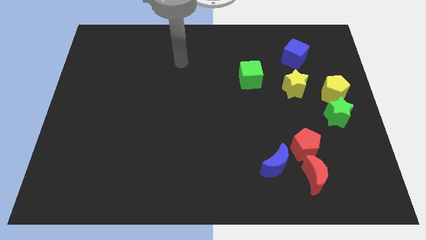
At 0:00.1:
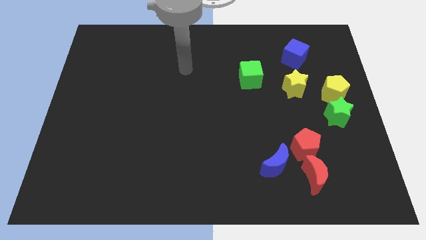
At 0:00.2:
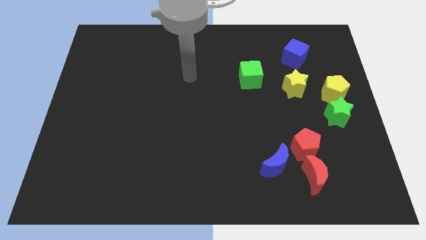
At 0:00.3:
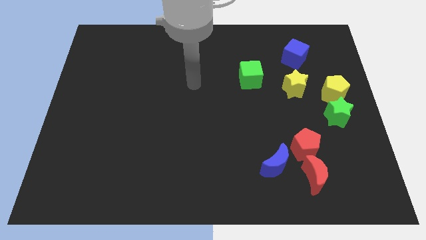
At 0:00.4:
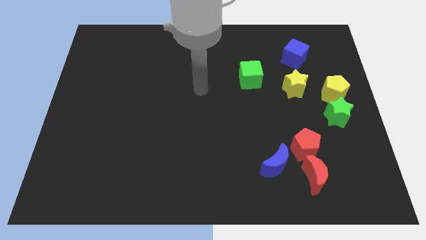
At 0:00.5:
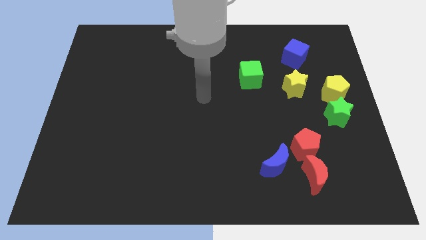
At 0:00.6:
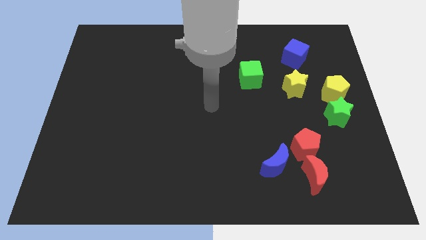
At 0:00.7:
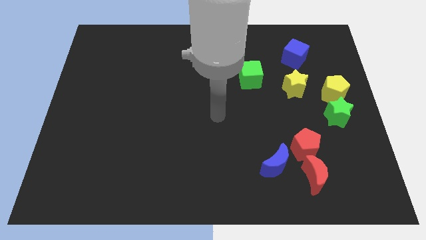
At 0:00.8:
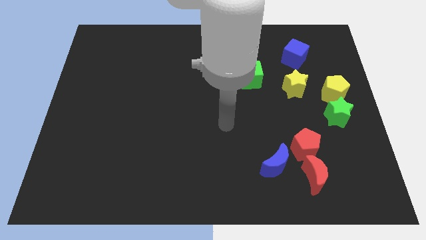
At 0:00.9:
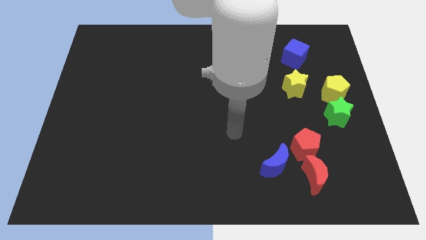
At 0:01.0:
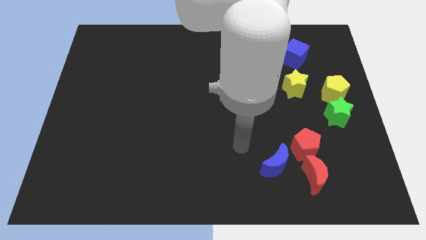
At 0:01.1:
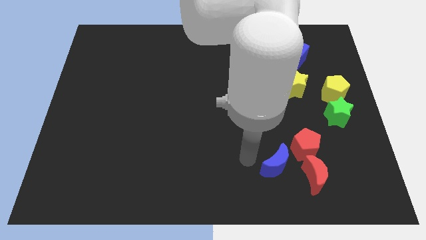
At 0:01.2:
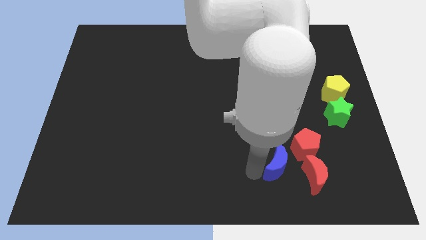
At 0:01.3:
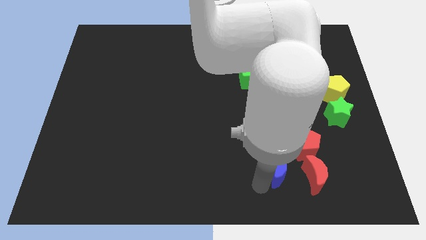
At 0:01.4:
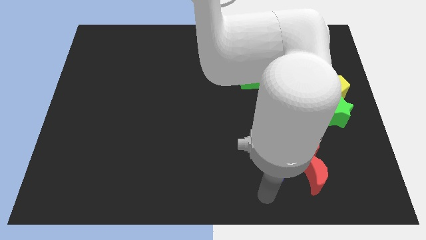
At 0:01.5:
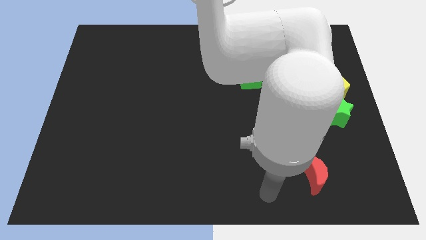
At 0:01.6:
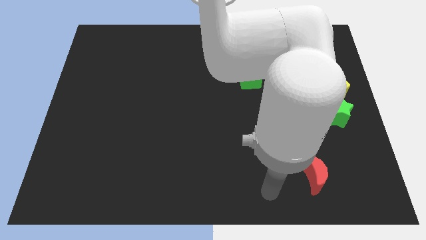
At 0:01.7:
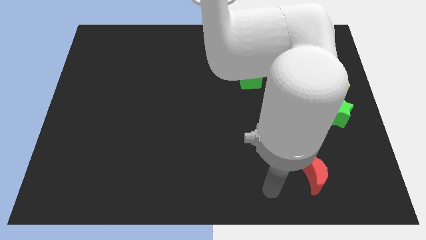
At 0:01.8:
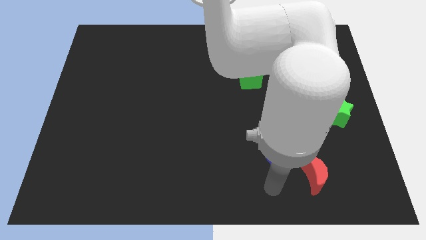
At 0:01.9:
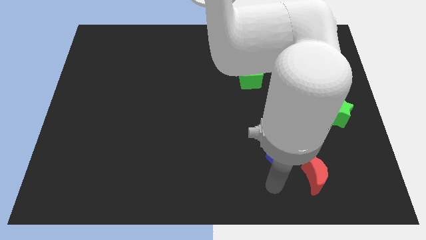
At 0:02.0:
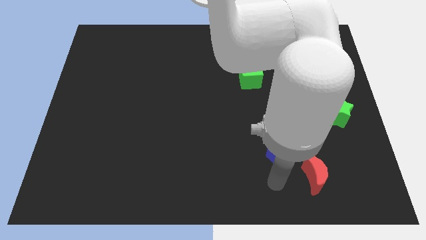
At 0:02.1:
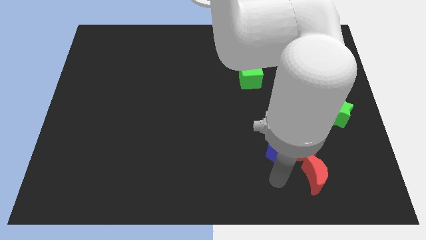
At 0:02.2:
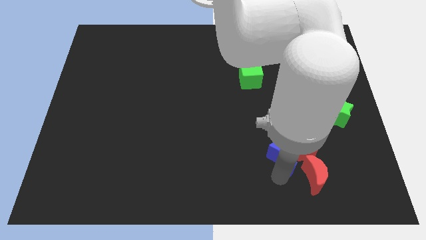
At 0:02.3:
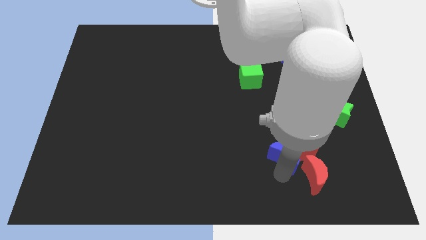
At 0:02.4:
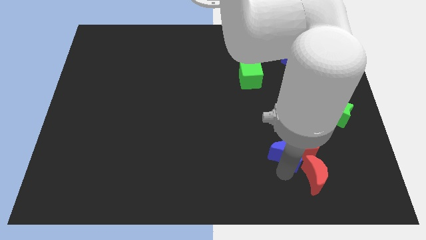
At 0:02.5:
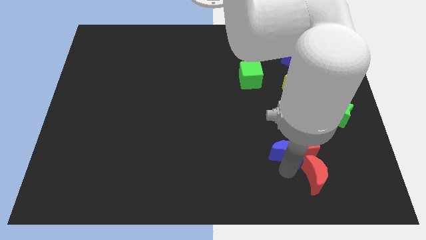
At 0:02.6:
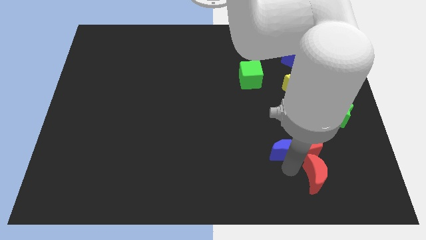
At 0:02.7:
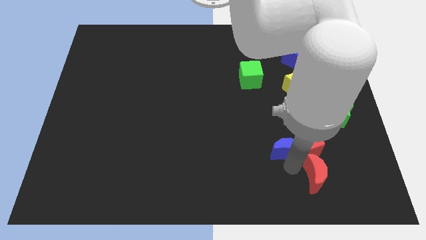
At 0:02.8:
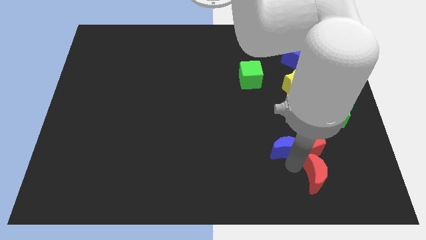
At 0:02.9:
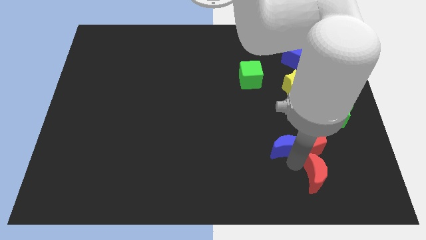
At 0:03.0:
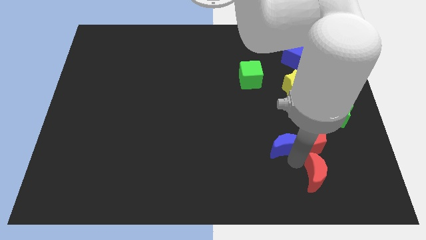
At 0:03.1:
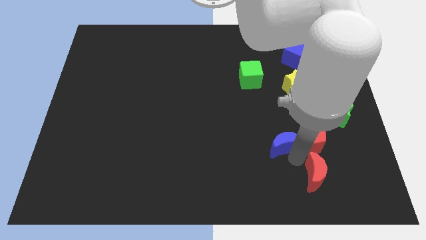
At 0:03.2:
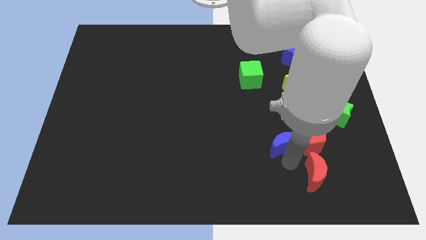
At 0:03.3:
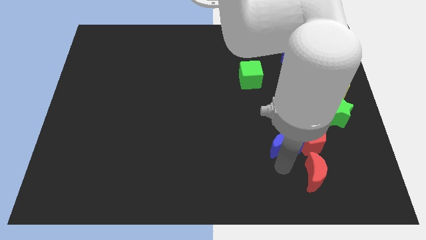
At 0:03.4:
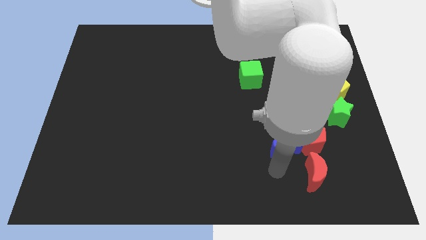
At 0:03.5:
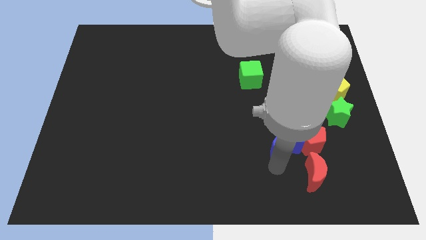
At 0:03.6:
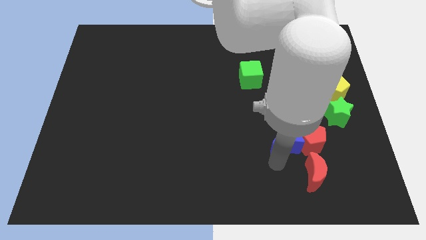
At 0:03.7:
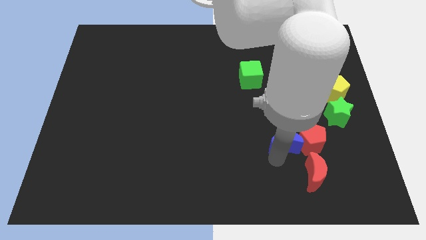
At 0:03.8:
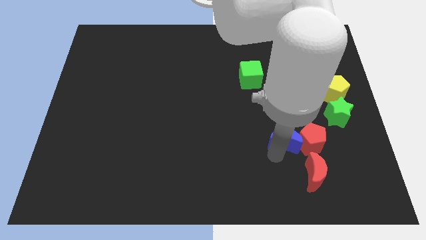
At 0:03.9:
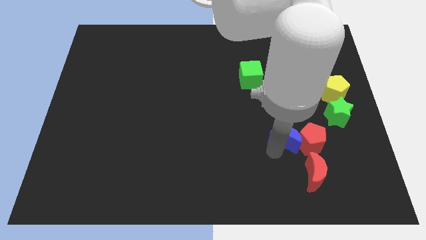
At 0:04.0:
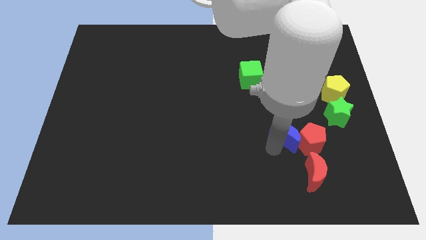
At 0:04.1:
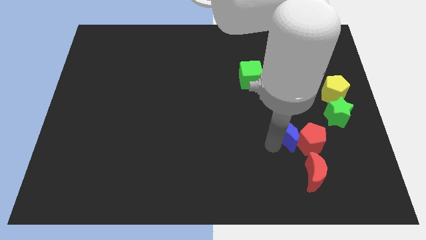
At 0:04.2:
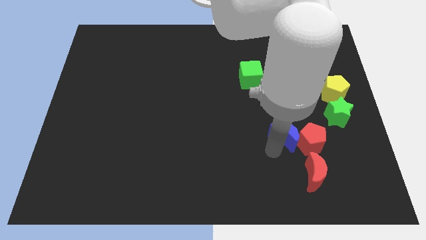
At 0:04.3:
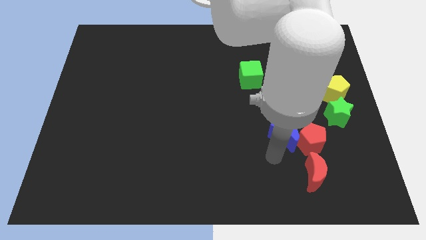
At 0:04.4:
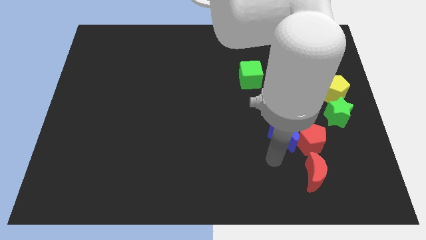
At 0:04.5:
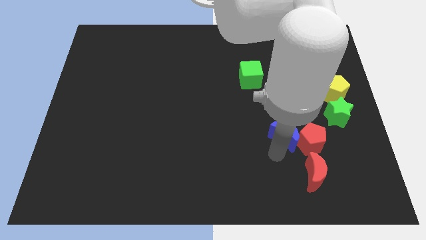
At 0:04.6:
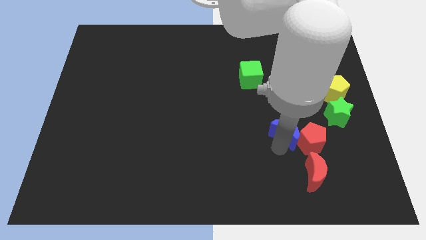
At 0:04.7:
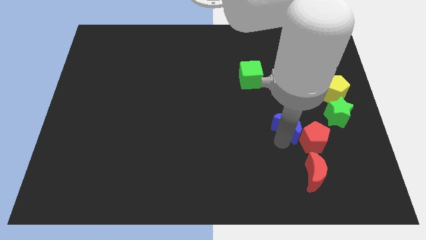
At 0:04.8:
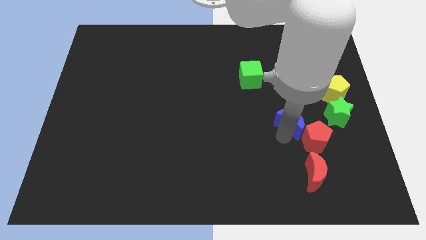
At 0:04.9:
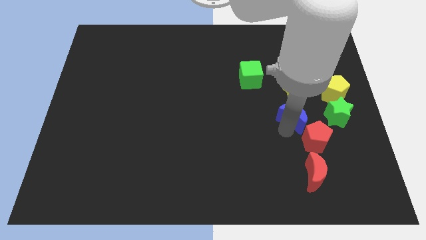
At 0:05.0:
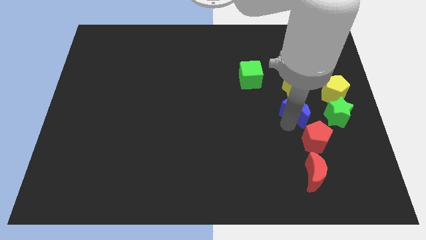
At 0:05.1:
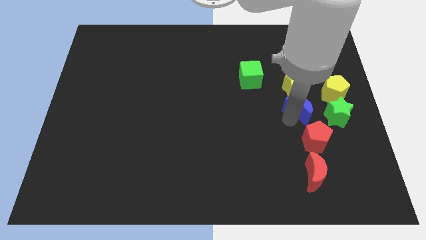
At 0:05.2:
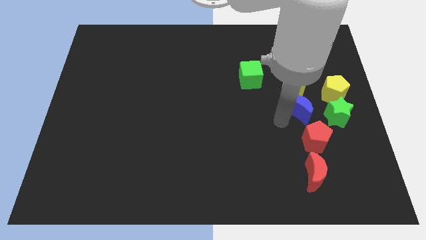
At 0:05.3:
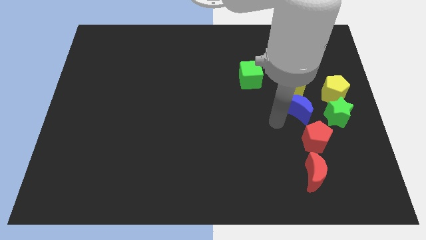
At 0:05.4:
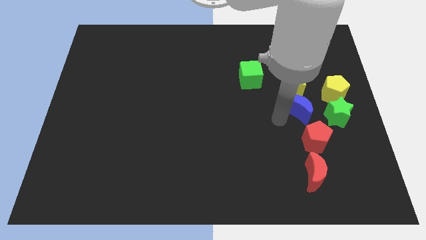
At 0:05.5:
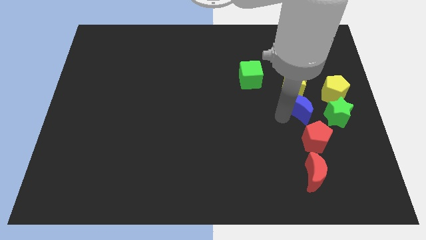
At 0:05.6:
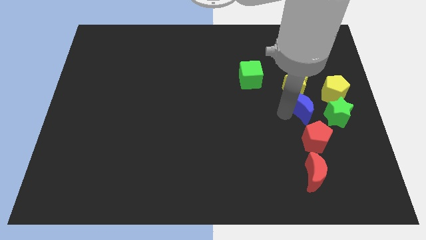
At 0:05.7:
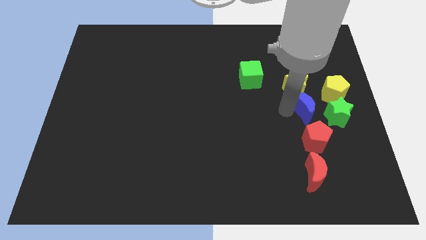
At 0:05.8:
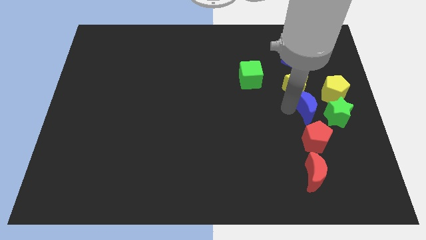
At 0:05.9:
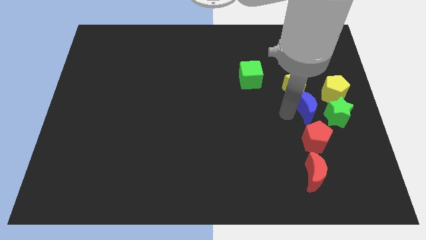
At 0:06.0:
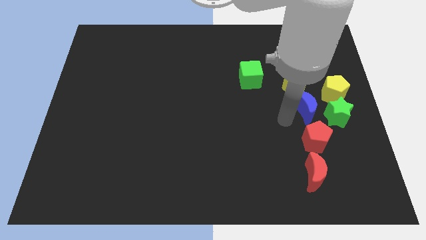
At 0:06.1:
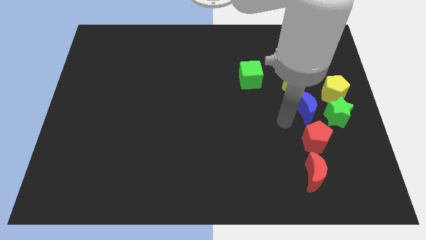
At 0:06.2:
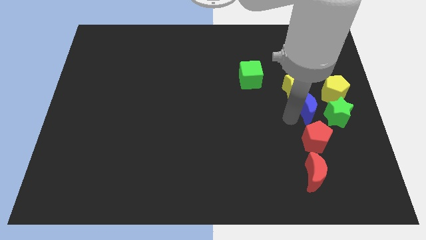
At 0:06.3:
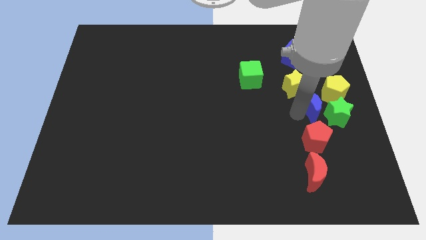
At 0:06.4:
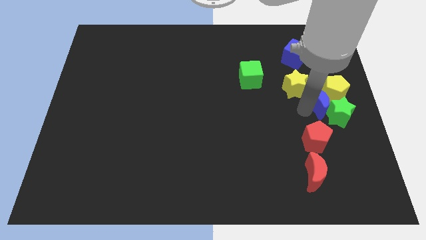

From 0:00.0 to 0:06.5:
move the blue moon close to the yellow pentagon

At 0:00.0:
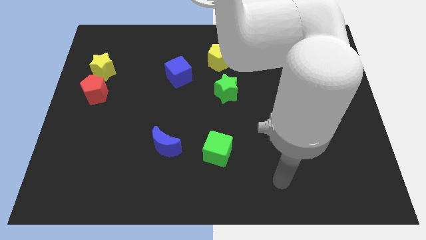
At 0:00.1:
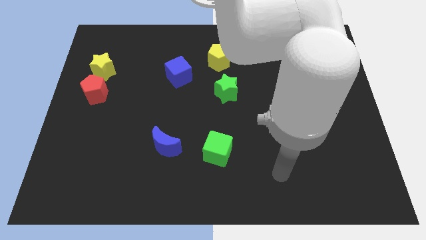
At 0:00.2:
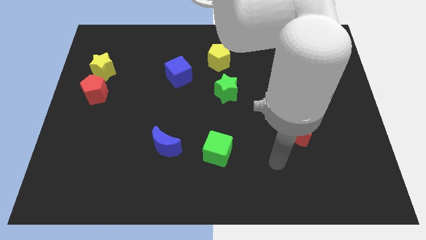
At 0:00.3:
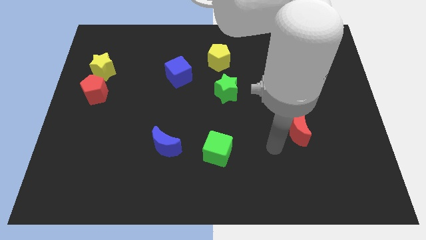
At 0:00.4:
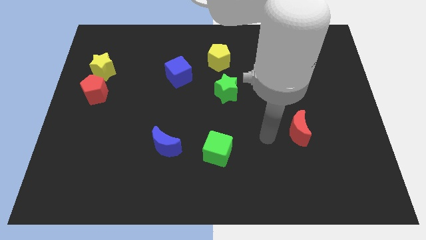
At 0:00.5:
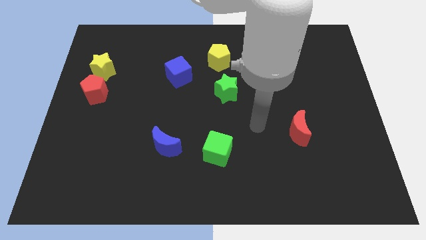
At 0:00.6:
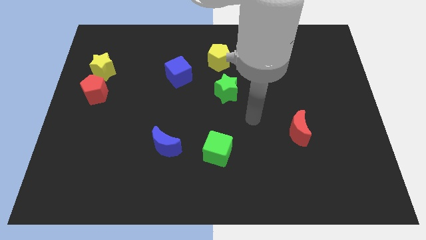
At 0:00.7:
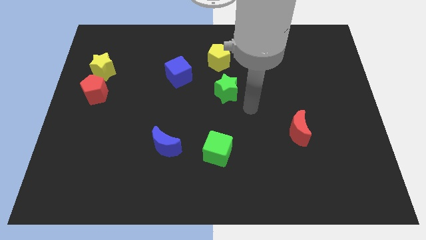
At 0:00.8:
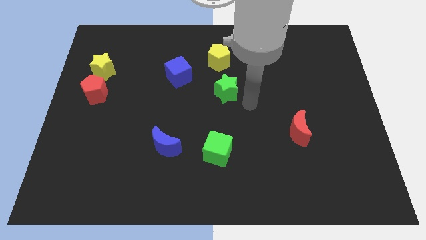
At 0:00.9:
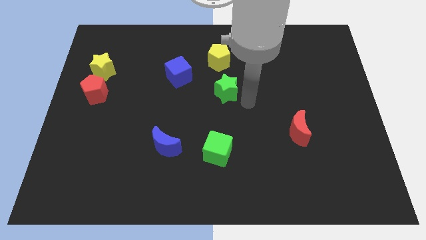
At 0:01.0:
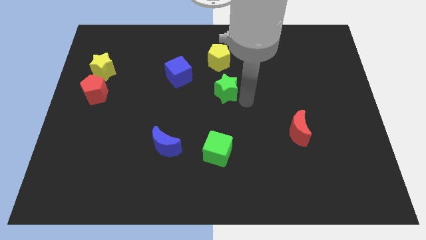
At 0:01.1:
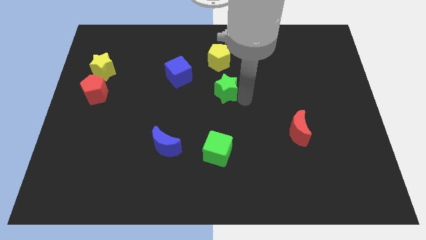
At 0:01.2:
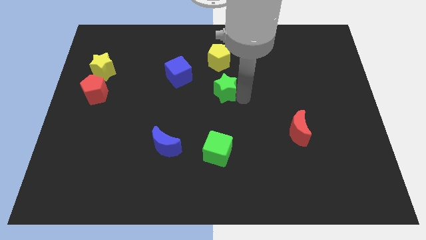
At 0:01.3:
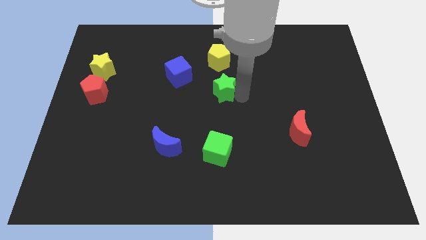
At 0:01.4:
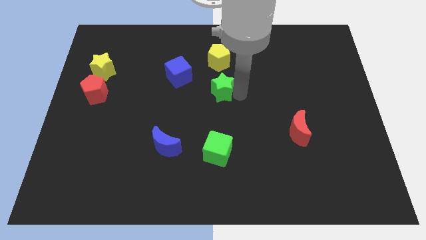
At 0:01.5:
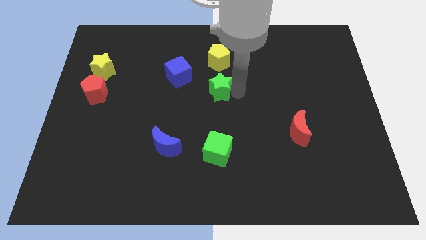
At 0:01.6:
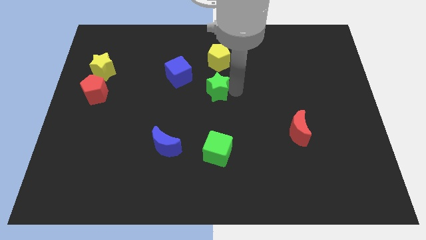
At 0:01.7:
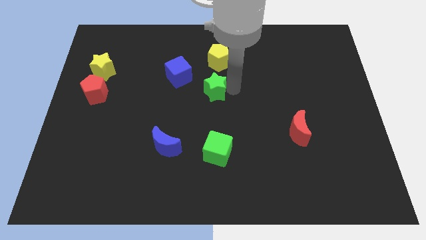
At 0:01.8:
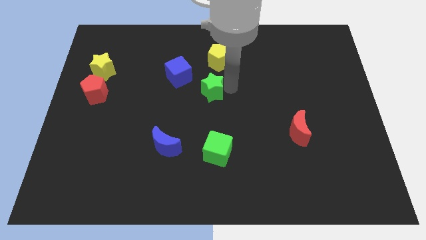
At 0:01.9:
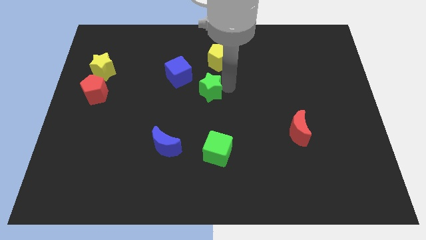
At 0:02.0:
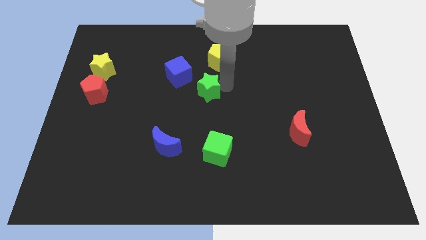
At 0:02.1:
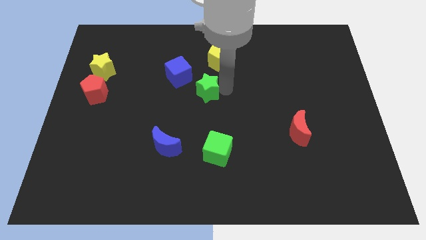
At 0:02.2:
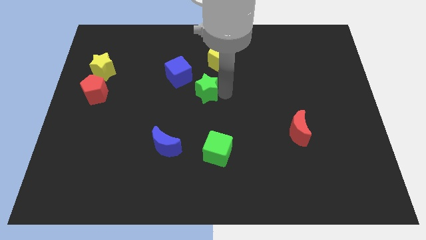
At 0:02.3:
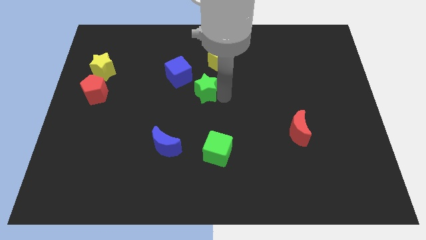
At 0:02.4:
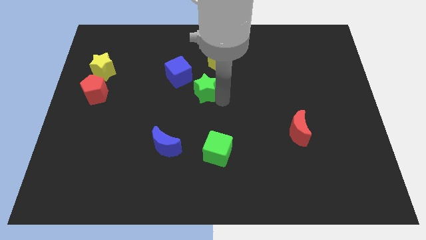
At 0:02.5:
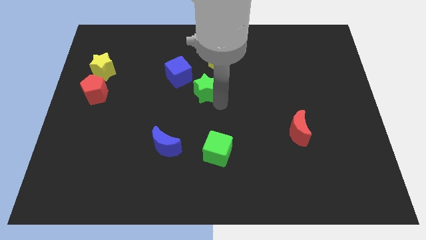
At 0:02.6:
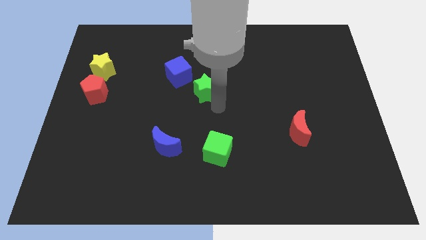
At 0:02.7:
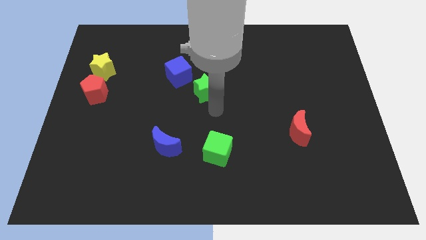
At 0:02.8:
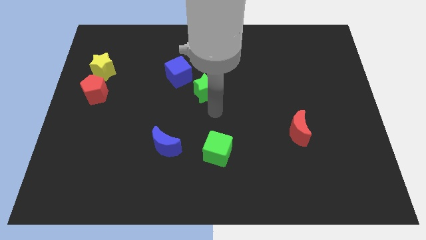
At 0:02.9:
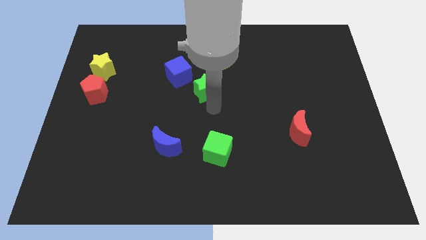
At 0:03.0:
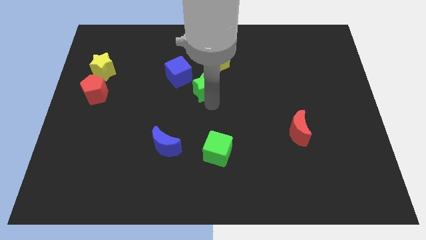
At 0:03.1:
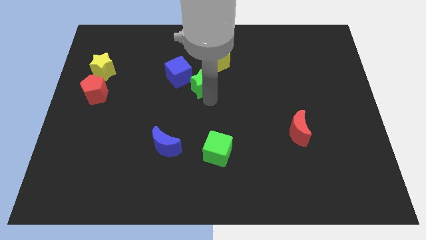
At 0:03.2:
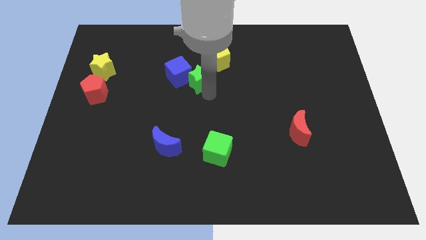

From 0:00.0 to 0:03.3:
push the green star close to the blue cube
